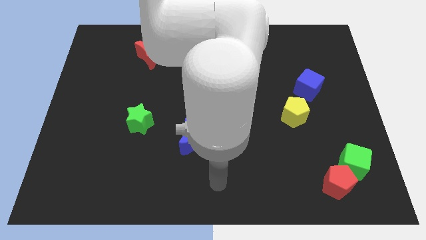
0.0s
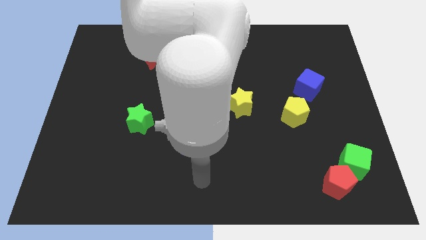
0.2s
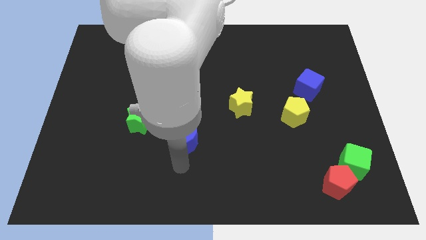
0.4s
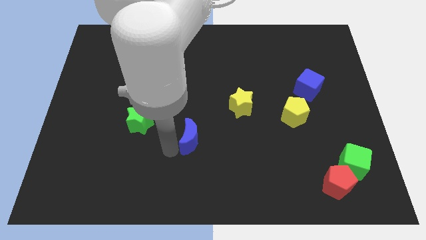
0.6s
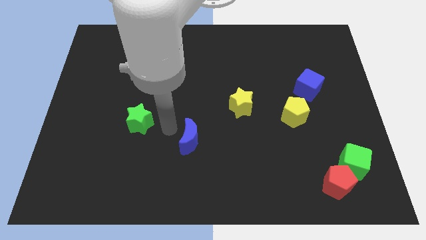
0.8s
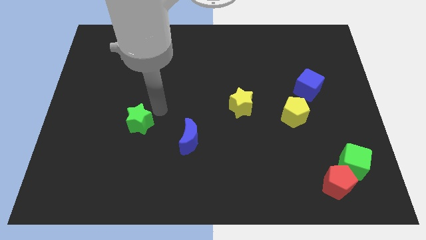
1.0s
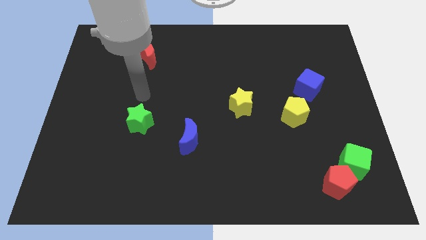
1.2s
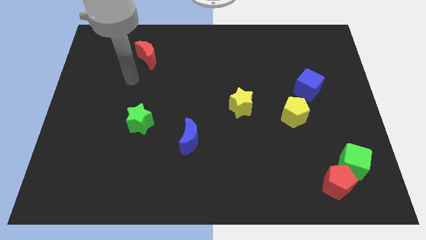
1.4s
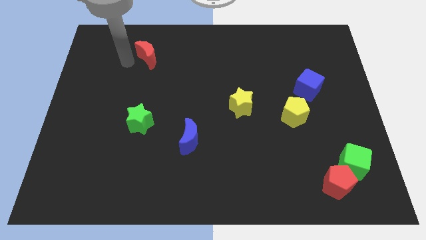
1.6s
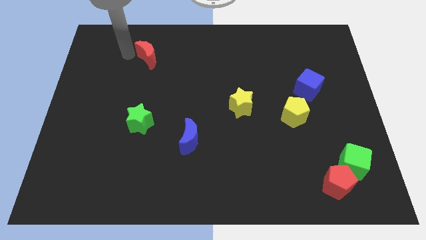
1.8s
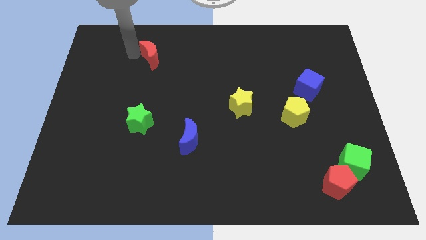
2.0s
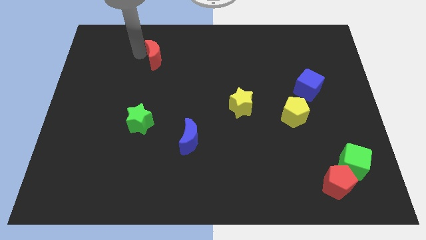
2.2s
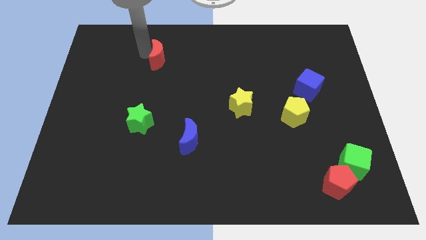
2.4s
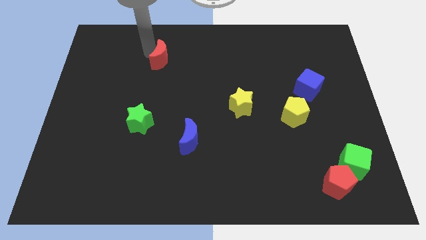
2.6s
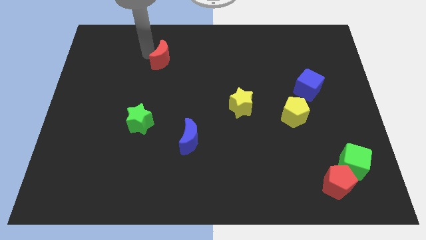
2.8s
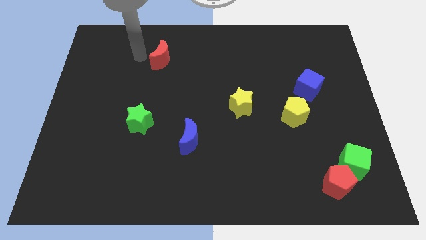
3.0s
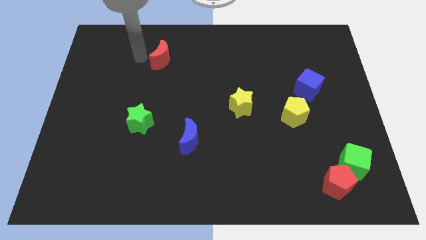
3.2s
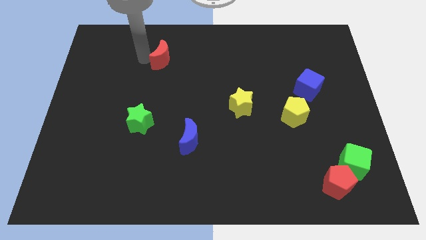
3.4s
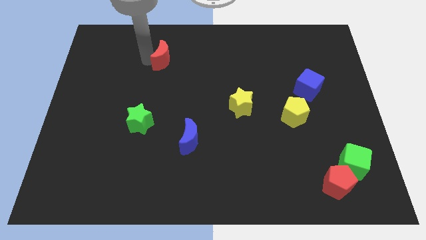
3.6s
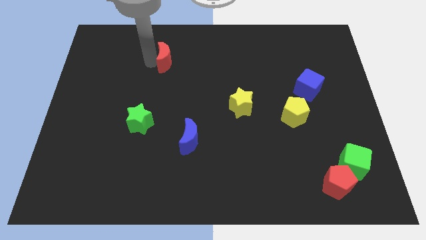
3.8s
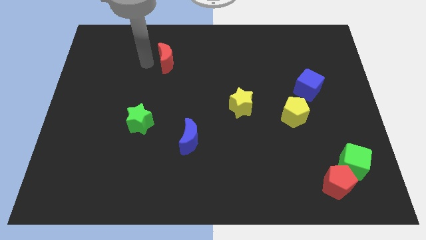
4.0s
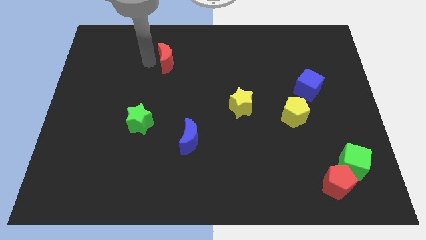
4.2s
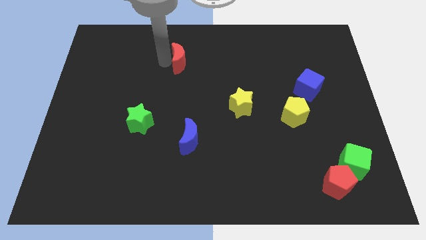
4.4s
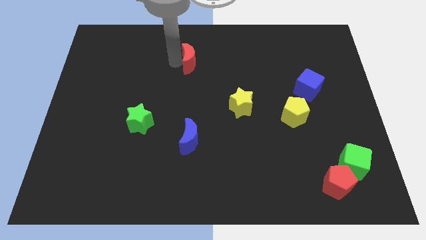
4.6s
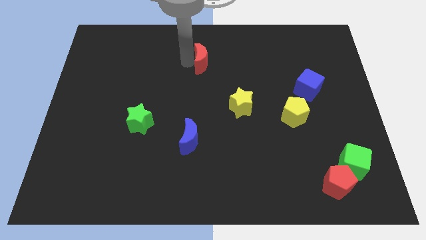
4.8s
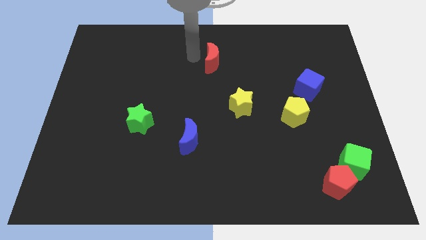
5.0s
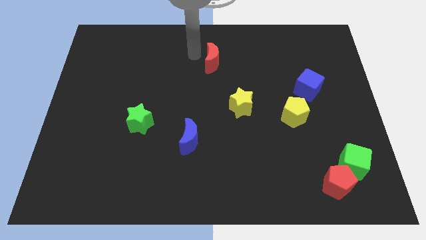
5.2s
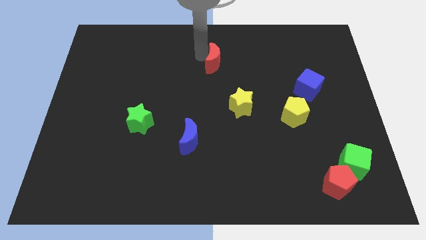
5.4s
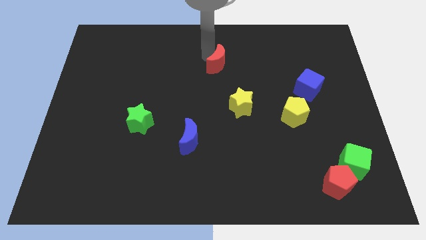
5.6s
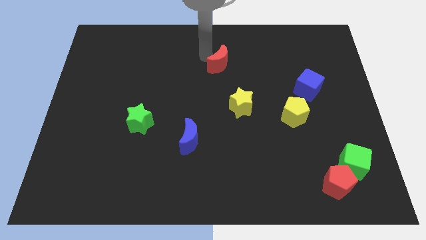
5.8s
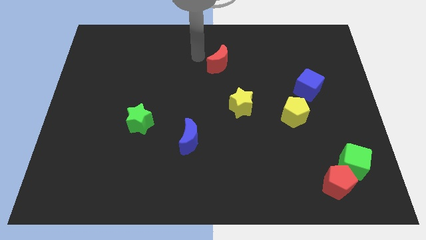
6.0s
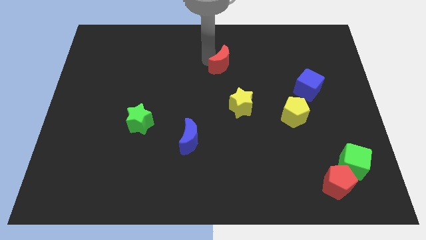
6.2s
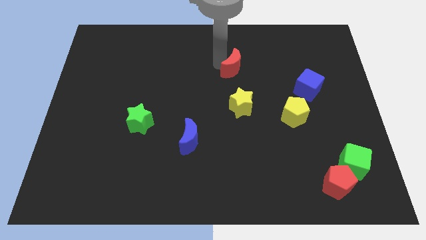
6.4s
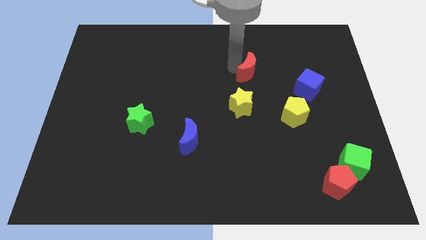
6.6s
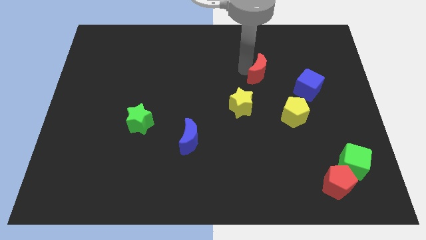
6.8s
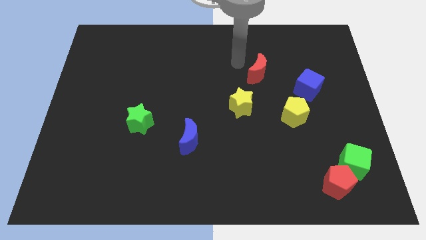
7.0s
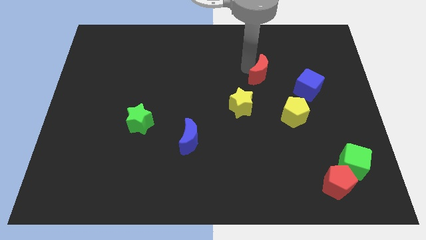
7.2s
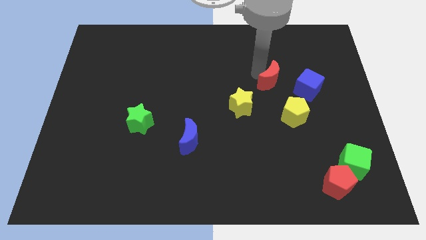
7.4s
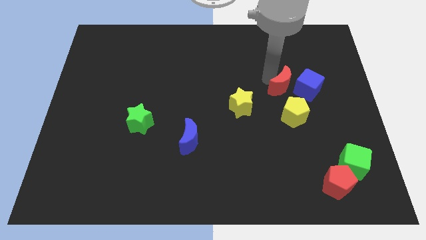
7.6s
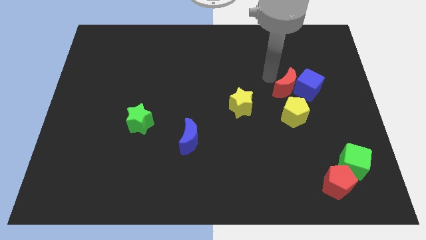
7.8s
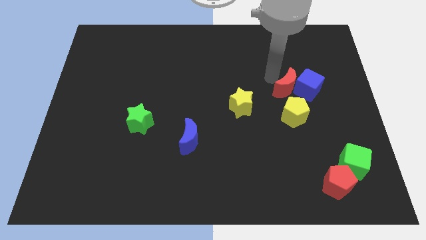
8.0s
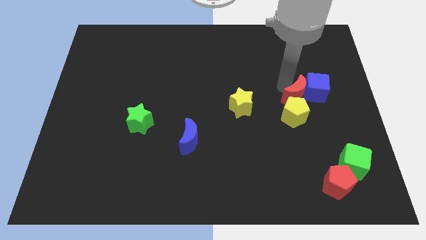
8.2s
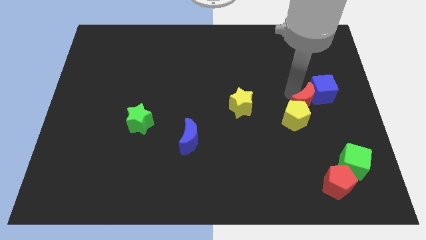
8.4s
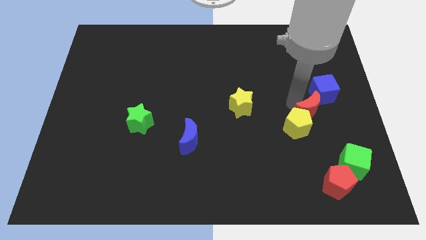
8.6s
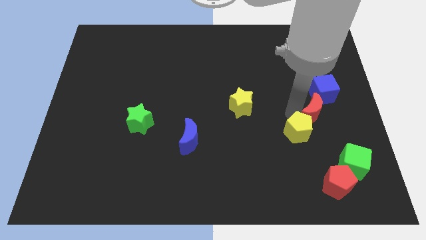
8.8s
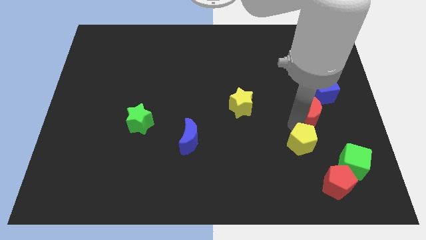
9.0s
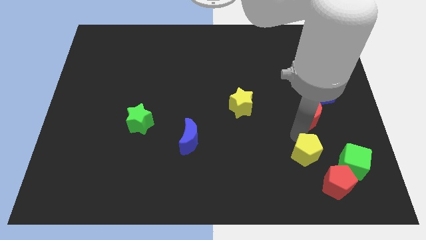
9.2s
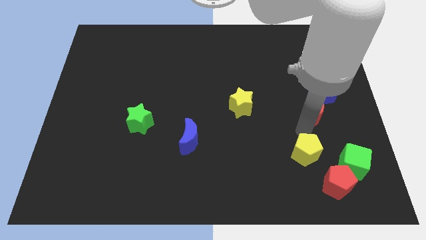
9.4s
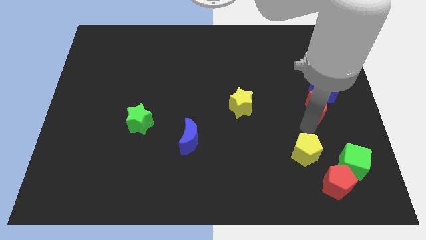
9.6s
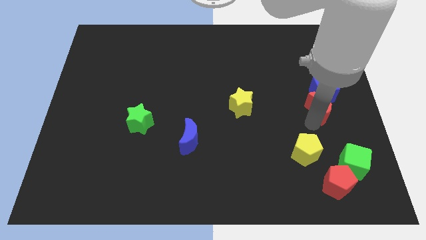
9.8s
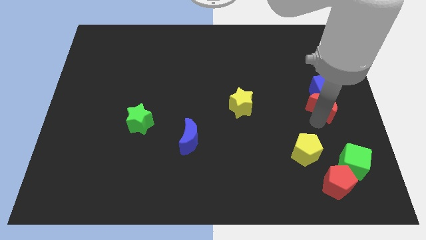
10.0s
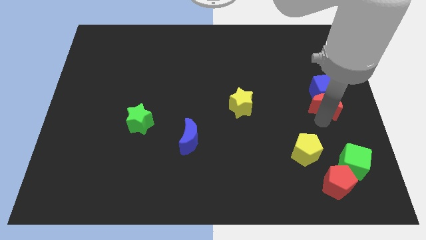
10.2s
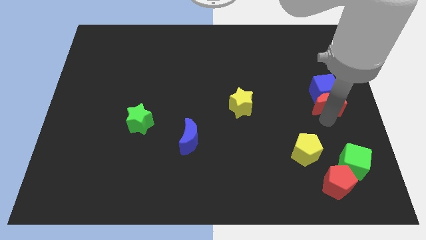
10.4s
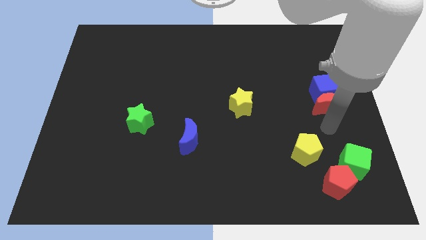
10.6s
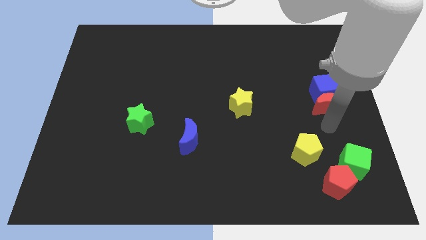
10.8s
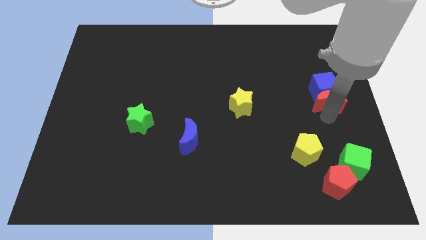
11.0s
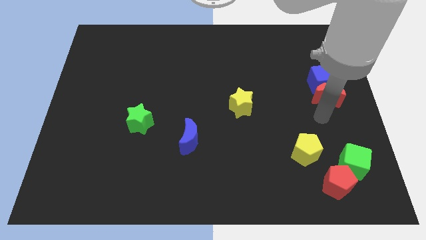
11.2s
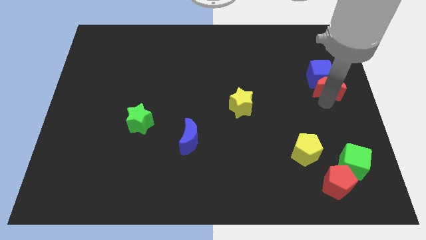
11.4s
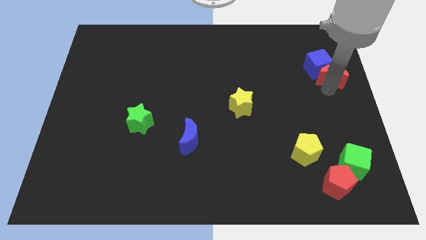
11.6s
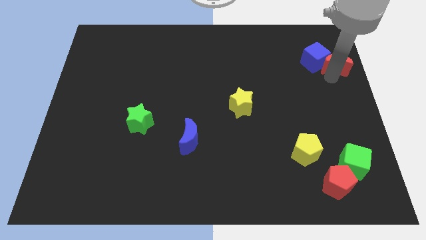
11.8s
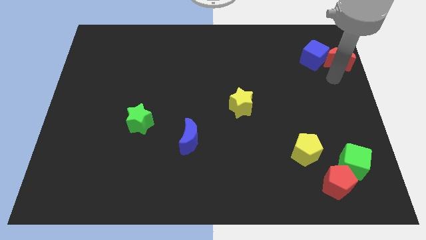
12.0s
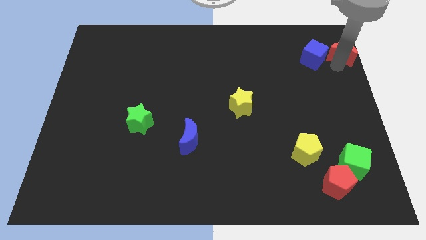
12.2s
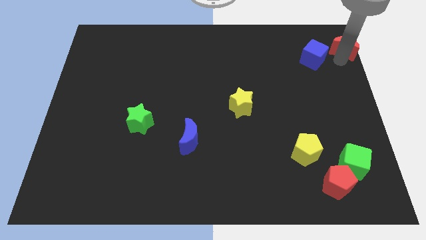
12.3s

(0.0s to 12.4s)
move the red moon to the upper right corner

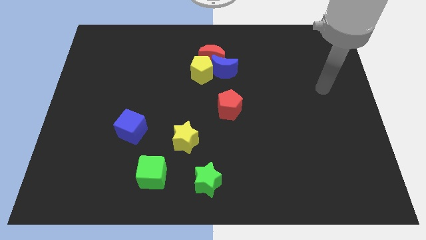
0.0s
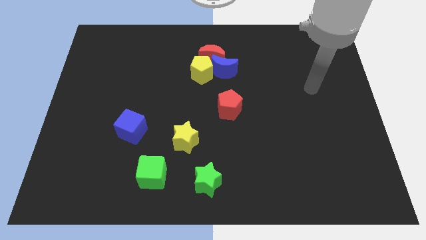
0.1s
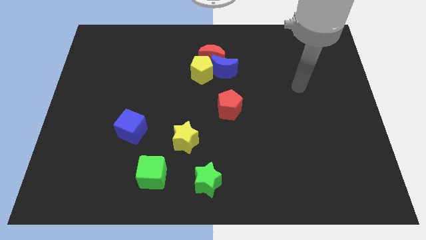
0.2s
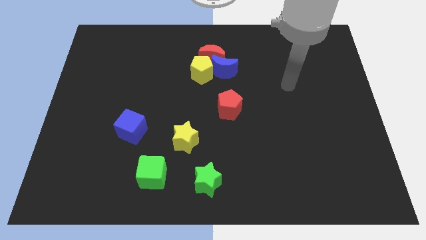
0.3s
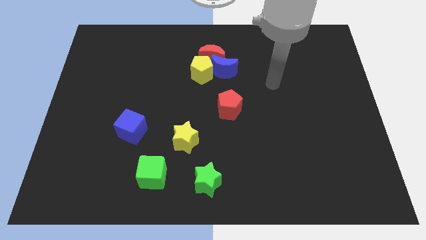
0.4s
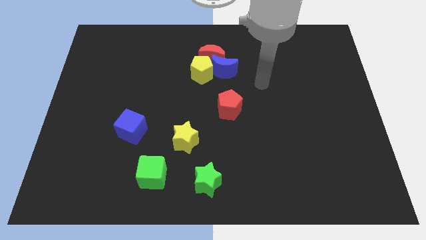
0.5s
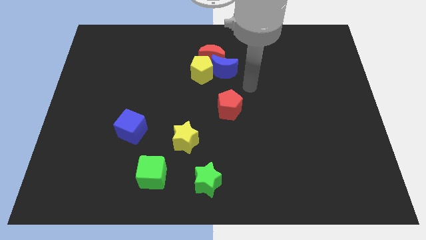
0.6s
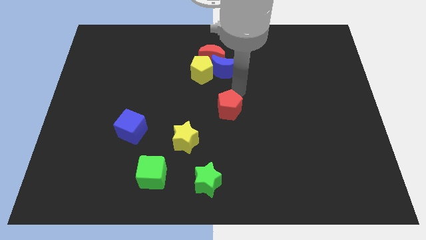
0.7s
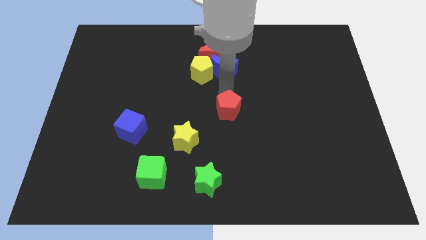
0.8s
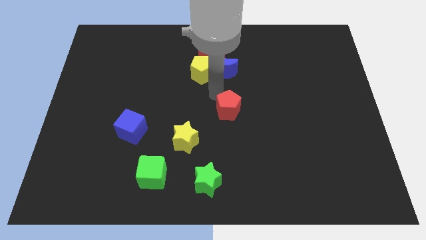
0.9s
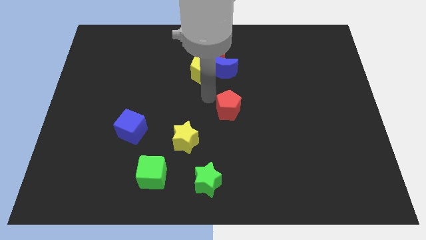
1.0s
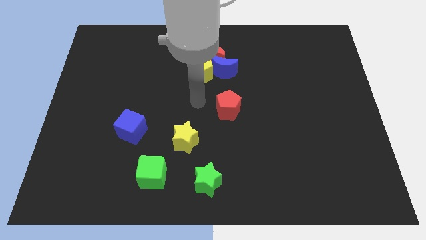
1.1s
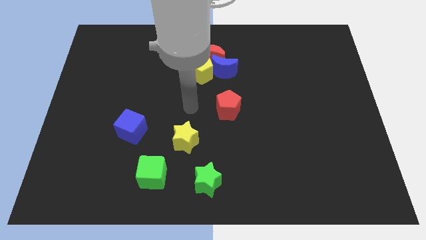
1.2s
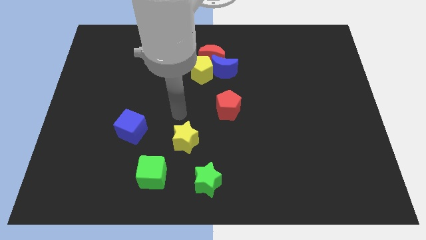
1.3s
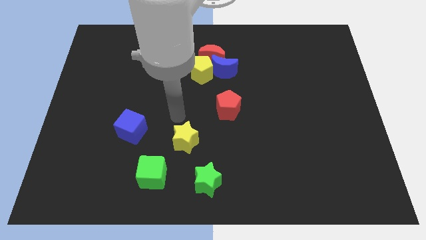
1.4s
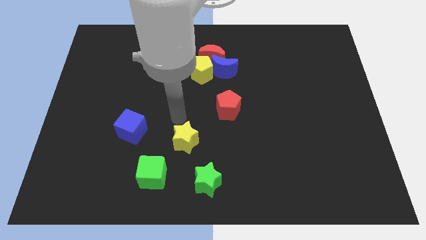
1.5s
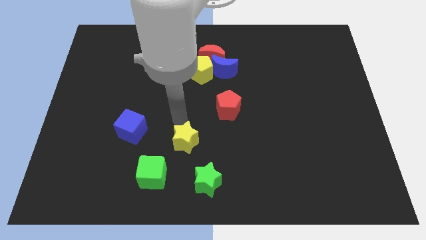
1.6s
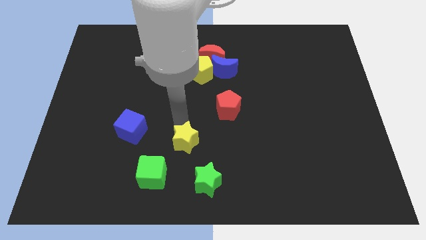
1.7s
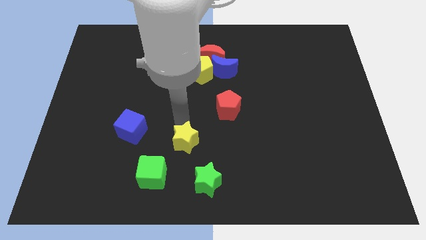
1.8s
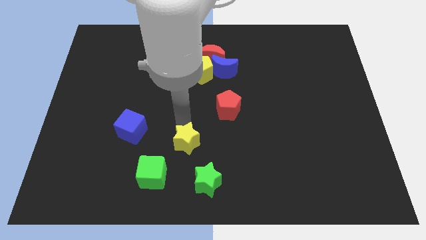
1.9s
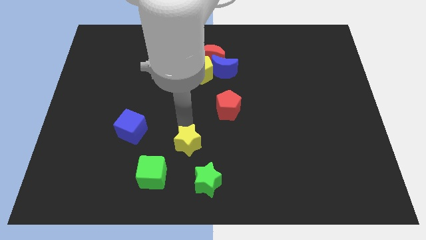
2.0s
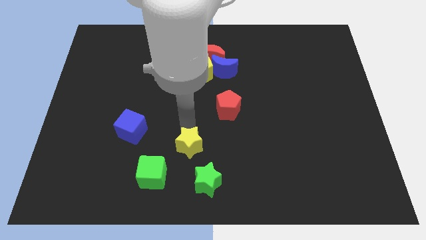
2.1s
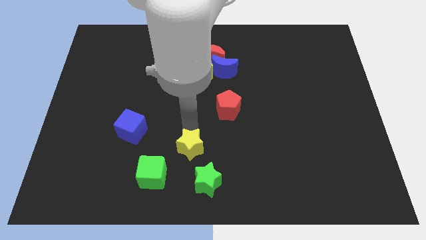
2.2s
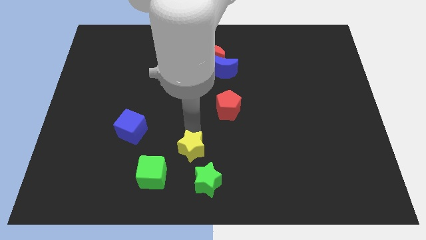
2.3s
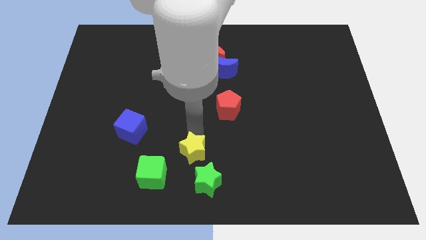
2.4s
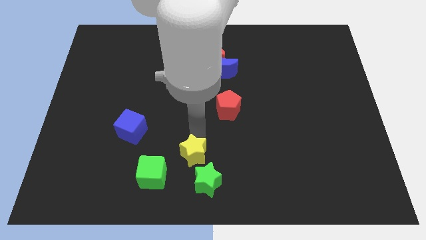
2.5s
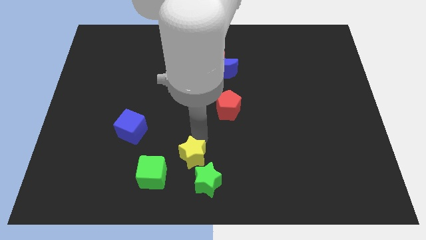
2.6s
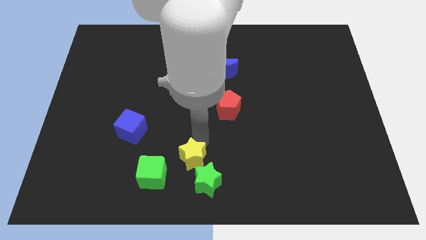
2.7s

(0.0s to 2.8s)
push the yellow star to the bottom
